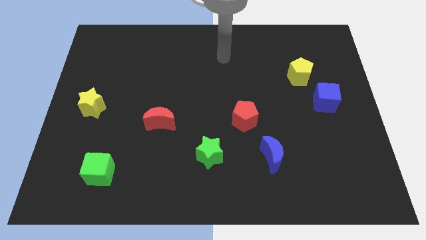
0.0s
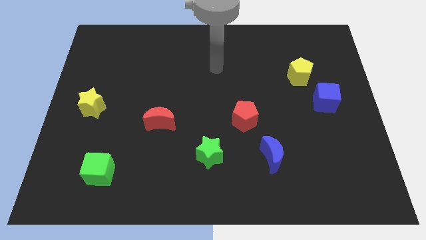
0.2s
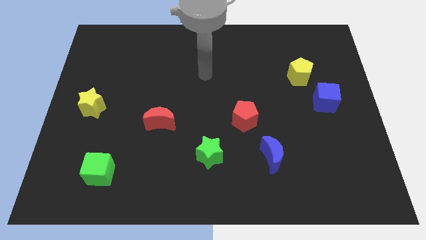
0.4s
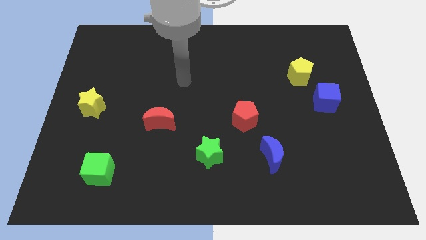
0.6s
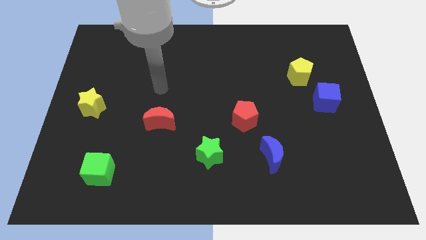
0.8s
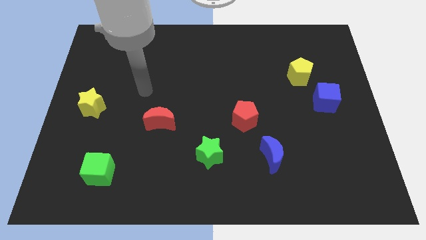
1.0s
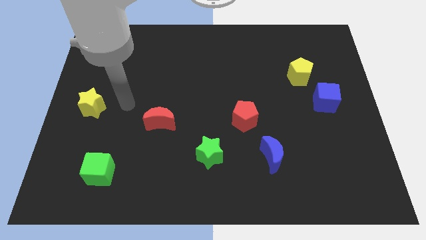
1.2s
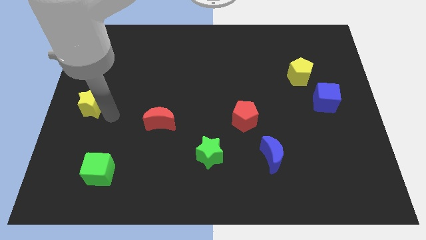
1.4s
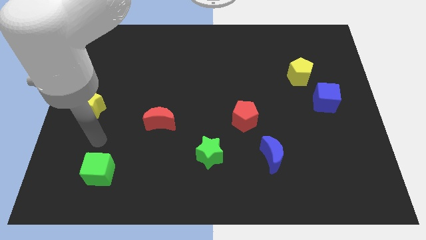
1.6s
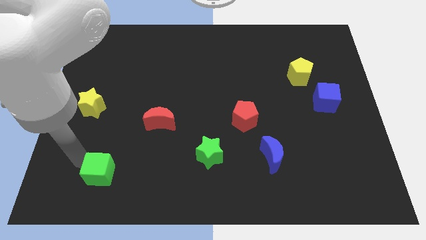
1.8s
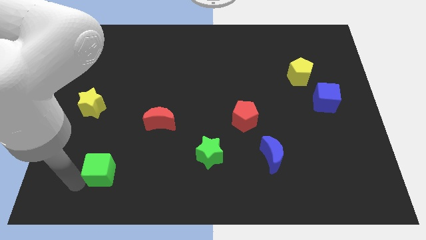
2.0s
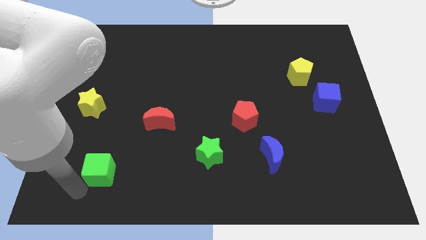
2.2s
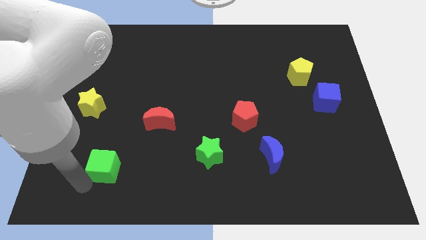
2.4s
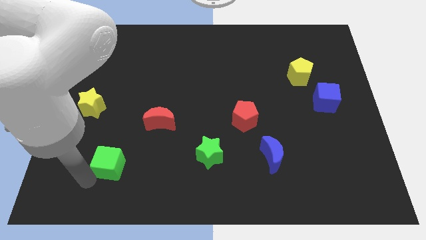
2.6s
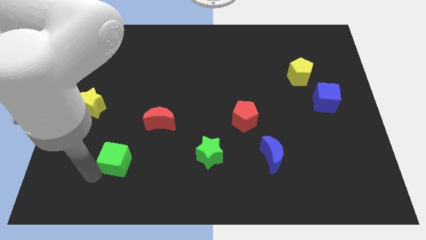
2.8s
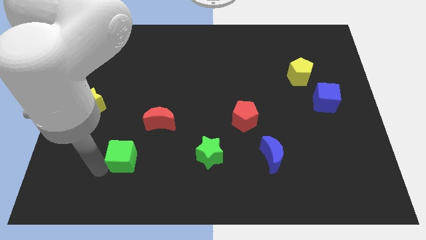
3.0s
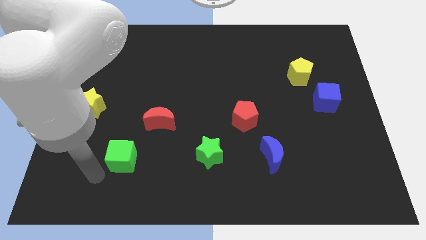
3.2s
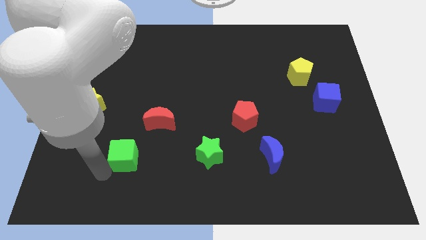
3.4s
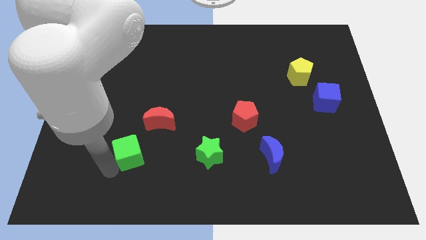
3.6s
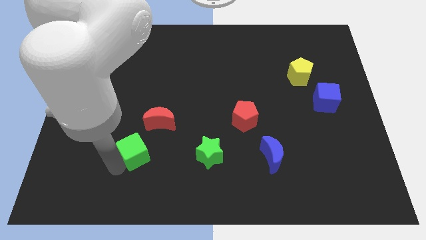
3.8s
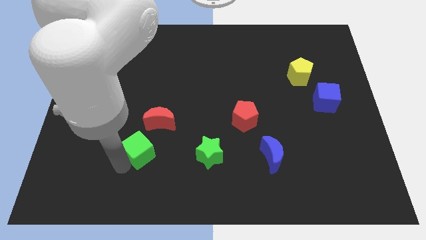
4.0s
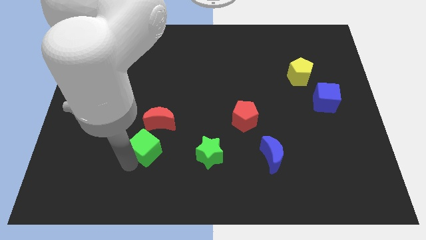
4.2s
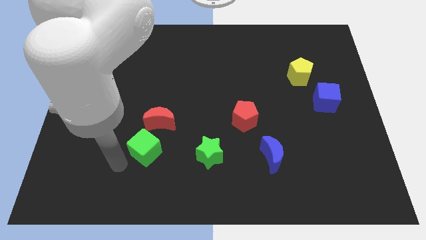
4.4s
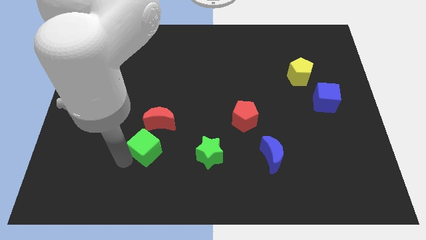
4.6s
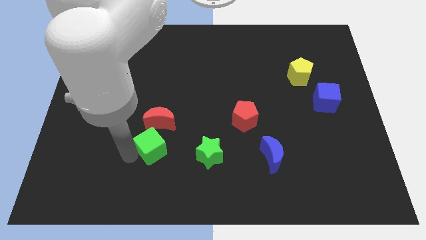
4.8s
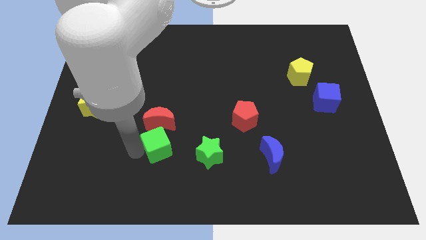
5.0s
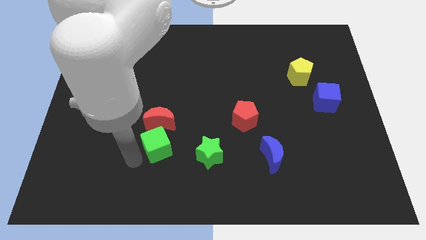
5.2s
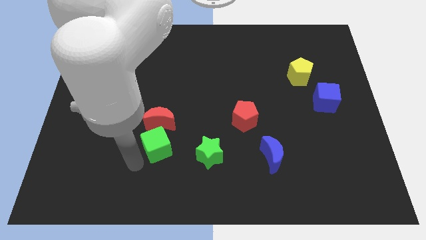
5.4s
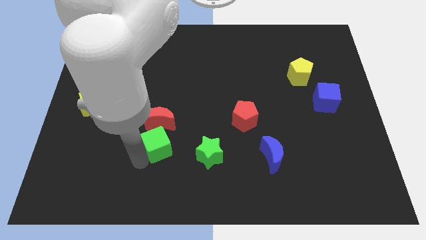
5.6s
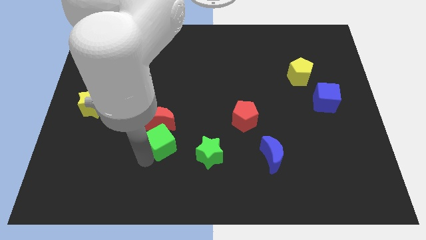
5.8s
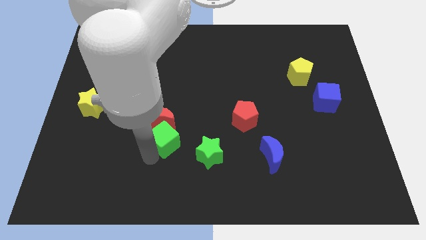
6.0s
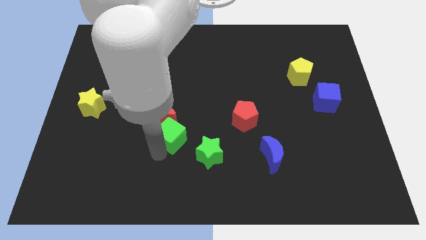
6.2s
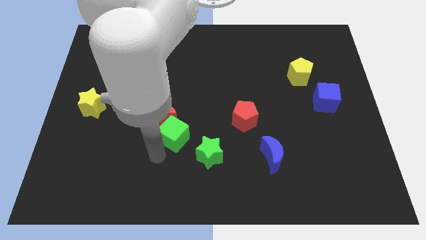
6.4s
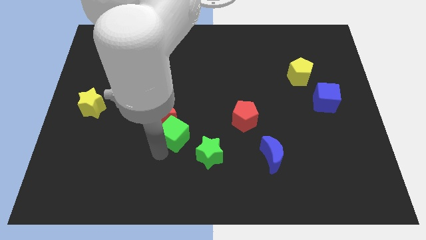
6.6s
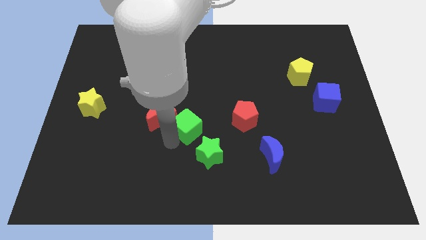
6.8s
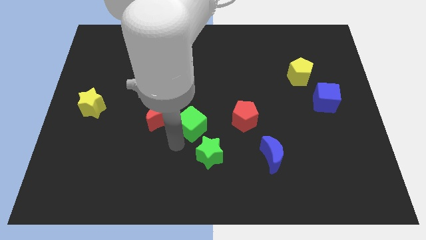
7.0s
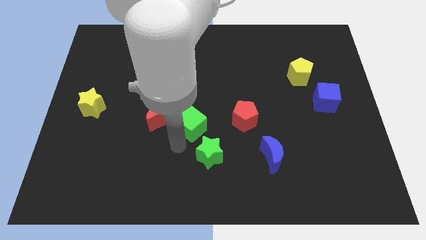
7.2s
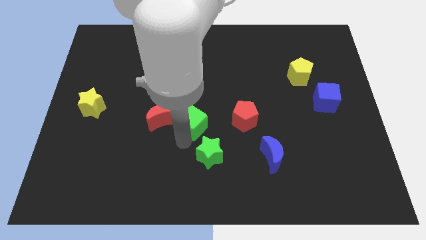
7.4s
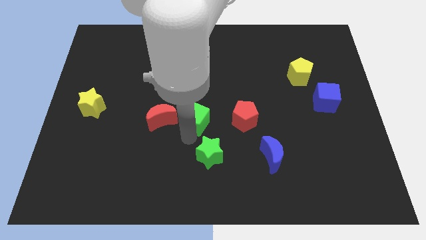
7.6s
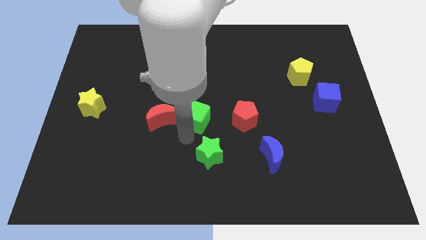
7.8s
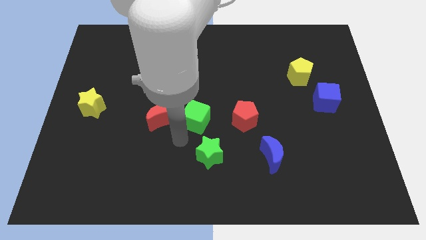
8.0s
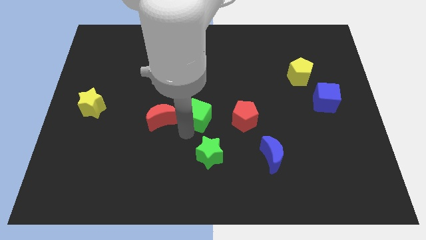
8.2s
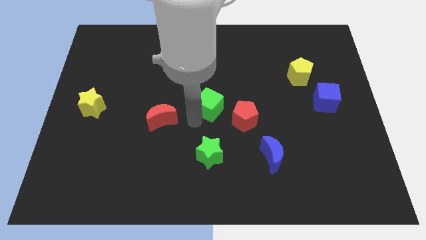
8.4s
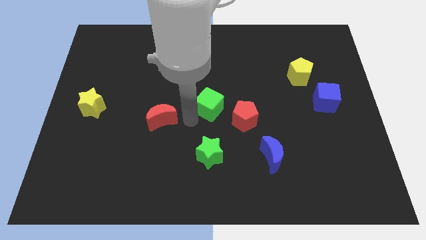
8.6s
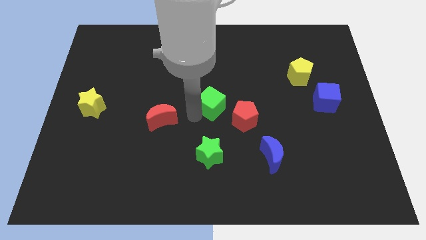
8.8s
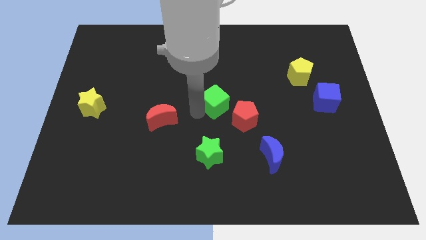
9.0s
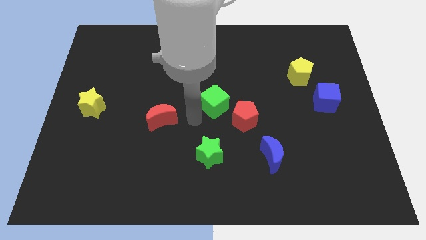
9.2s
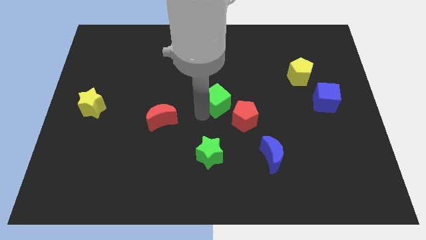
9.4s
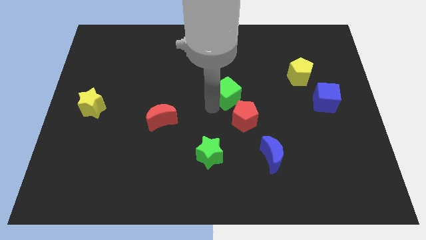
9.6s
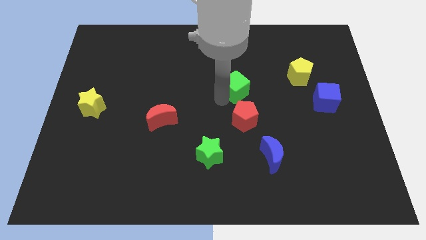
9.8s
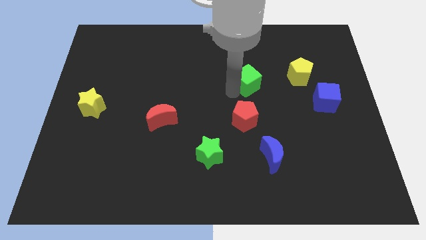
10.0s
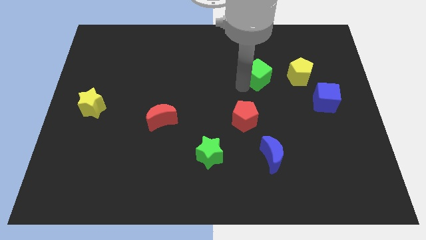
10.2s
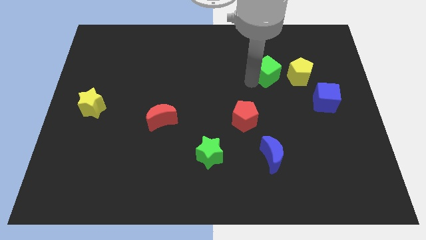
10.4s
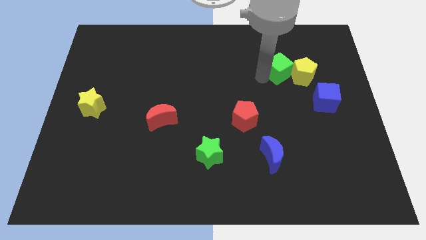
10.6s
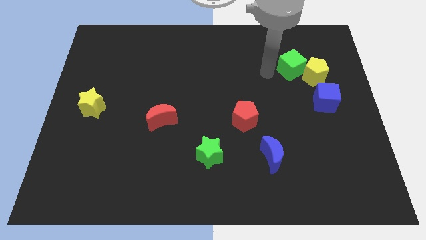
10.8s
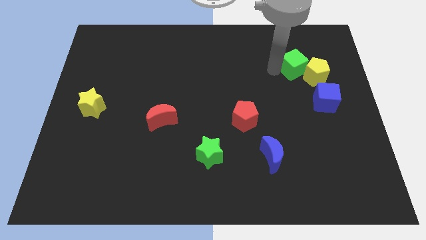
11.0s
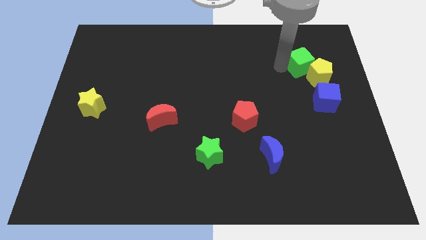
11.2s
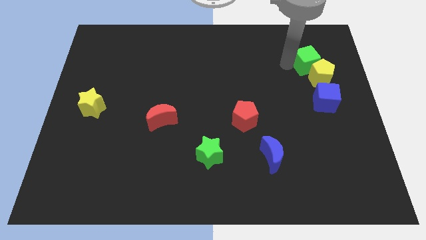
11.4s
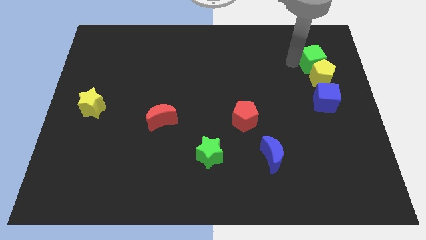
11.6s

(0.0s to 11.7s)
slide the green cube to the top right of the yellow pentagon

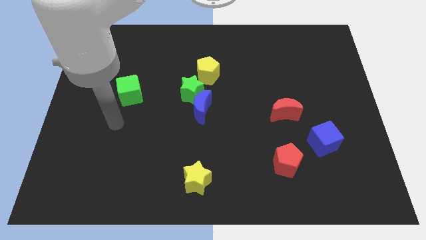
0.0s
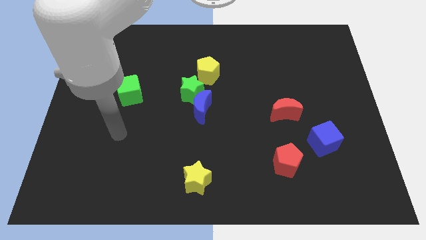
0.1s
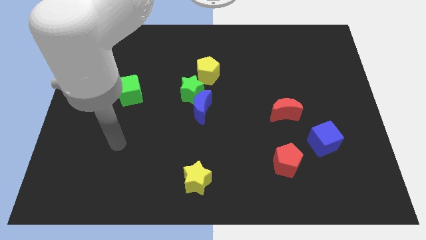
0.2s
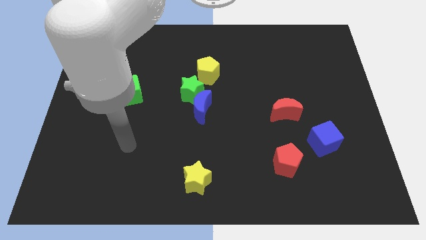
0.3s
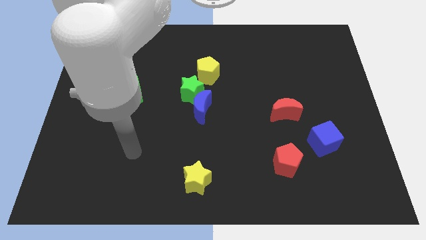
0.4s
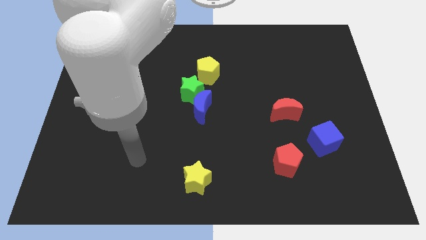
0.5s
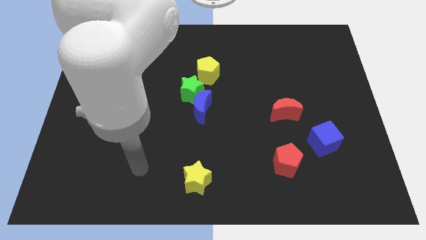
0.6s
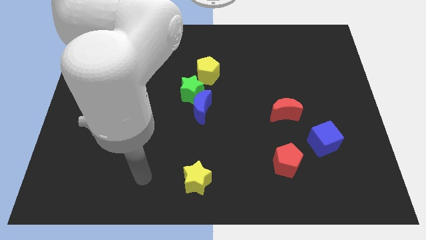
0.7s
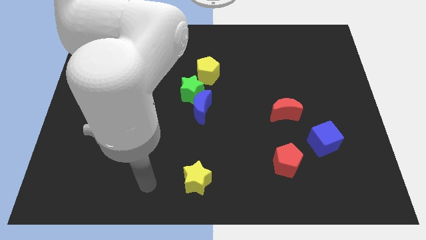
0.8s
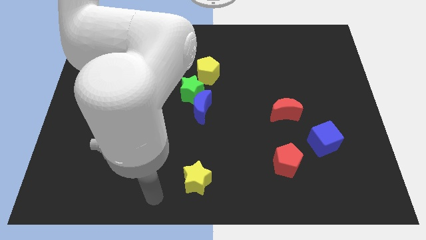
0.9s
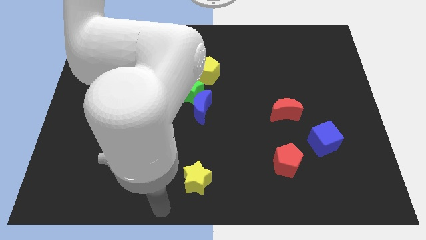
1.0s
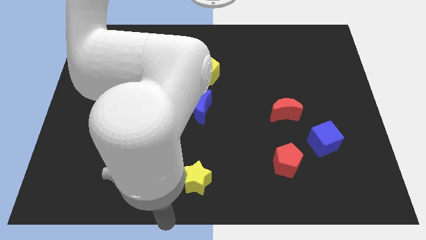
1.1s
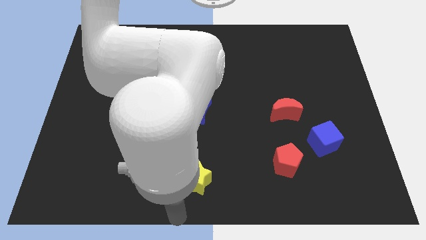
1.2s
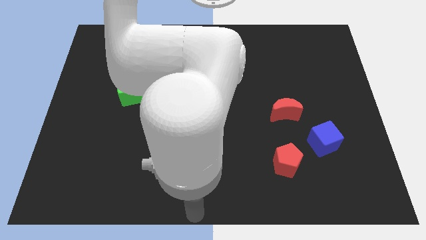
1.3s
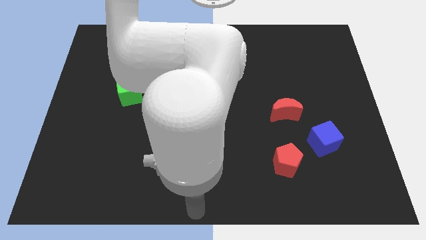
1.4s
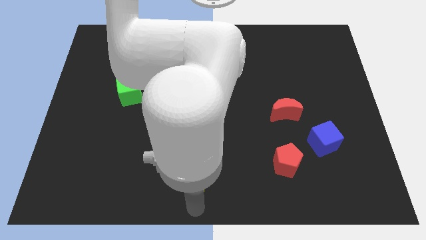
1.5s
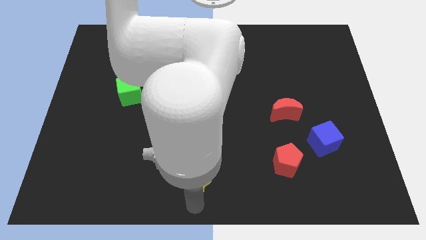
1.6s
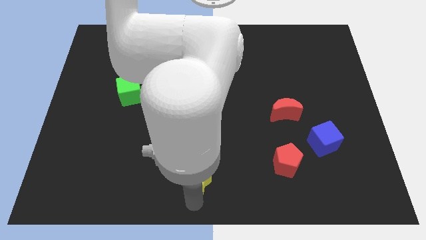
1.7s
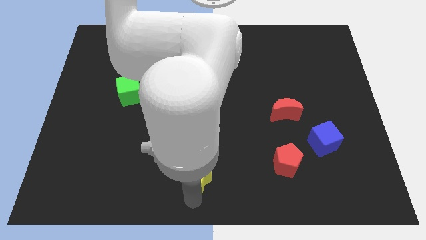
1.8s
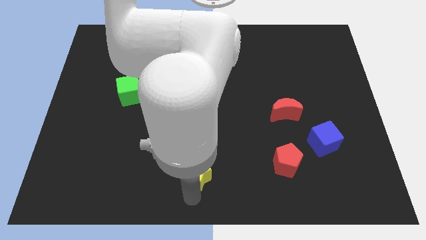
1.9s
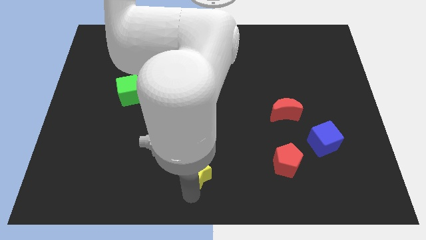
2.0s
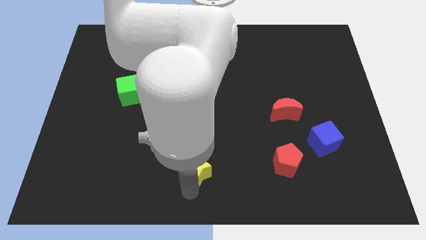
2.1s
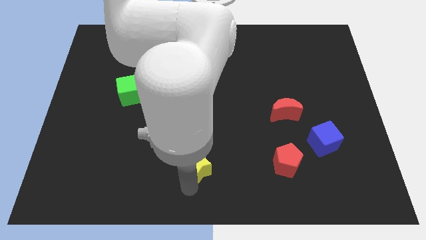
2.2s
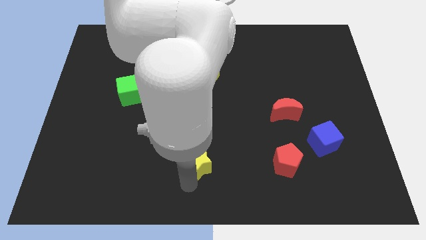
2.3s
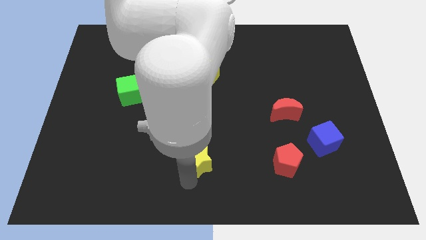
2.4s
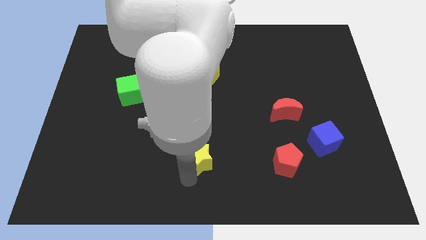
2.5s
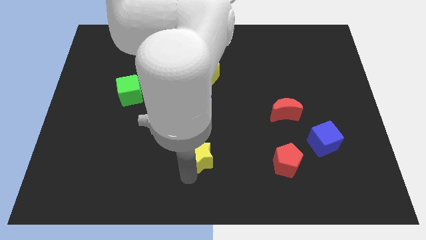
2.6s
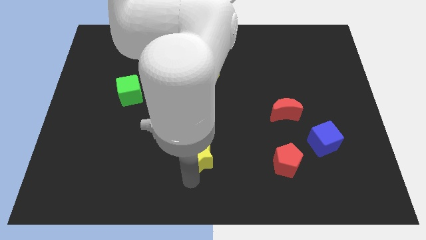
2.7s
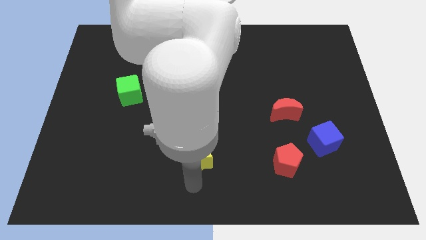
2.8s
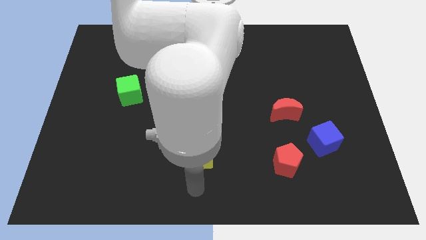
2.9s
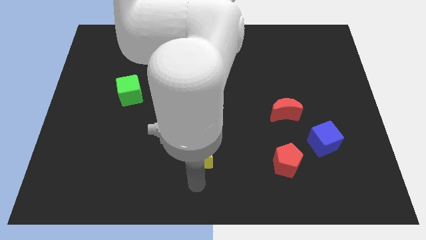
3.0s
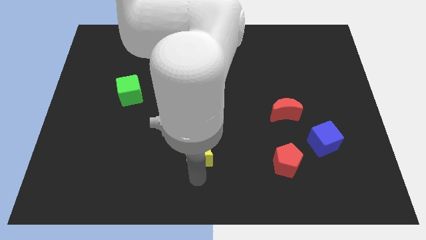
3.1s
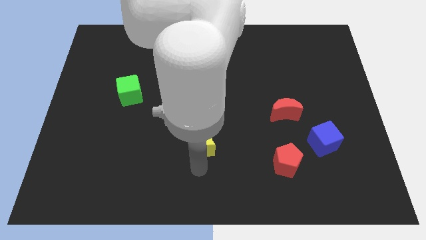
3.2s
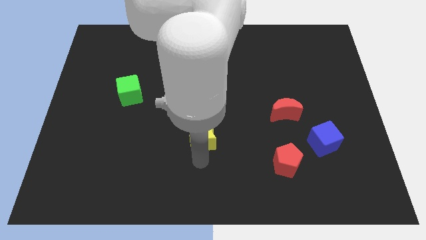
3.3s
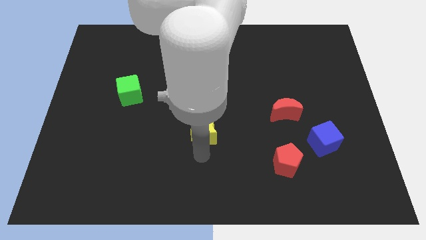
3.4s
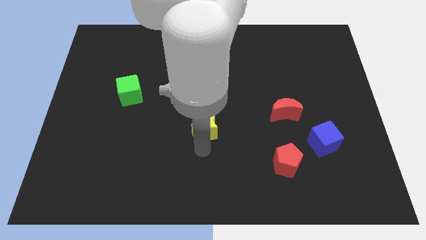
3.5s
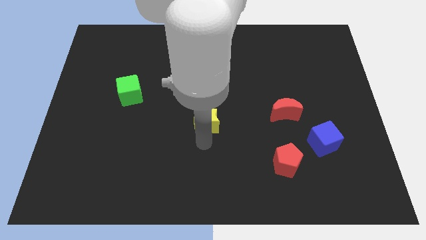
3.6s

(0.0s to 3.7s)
move the yellow star to the bottom of the yellow pentagon
